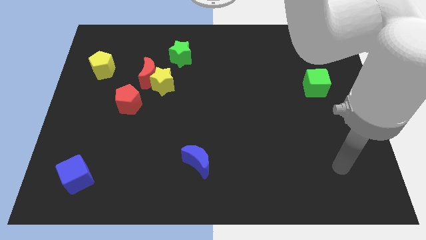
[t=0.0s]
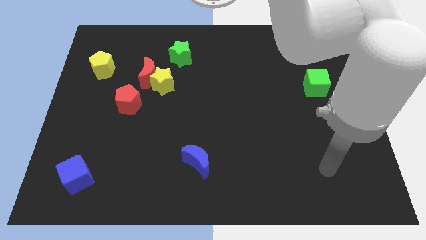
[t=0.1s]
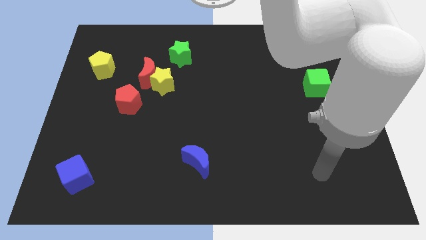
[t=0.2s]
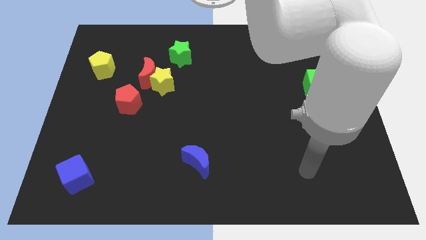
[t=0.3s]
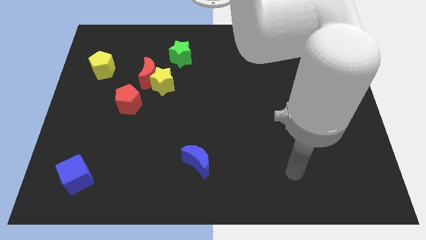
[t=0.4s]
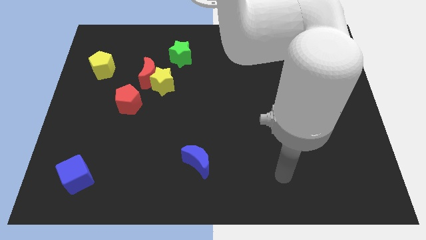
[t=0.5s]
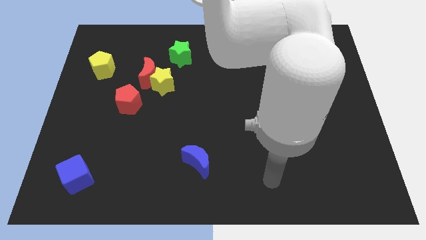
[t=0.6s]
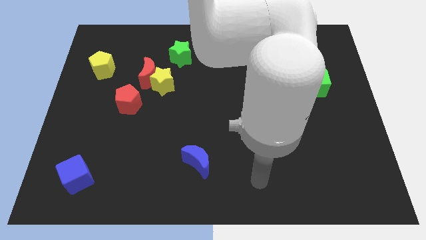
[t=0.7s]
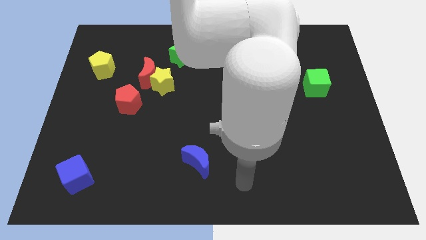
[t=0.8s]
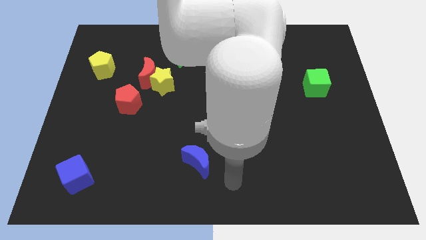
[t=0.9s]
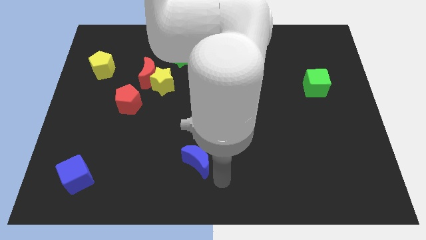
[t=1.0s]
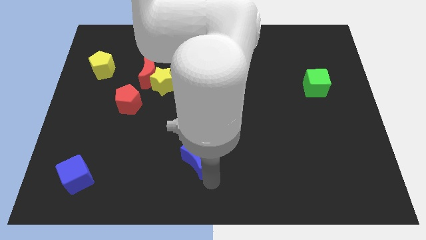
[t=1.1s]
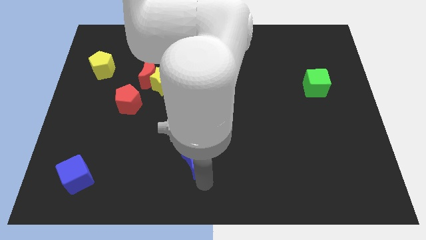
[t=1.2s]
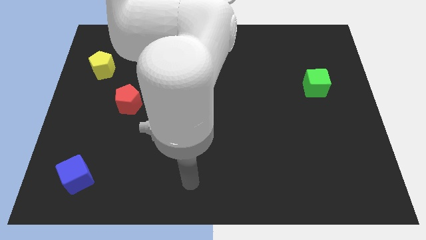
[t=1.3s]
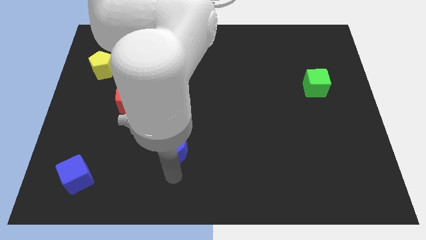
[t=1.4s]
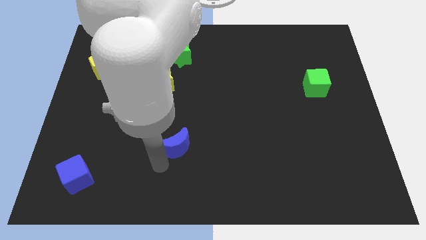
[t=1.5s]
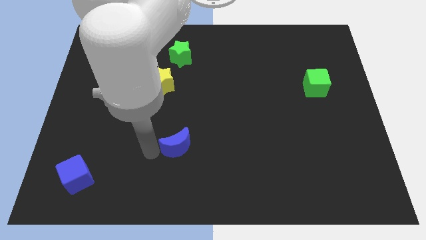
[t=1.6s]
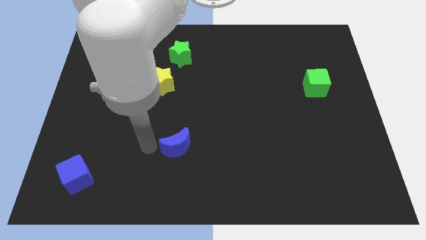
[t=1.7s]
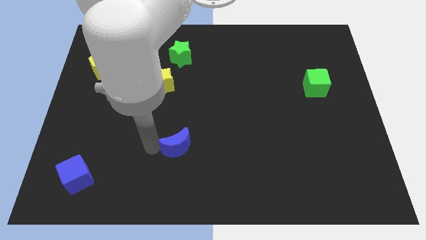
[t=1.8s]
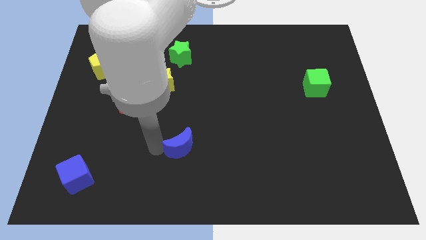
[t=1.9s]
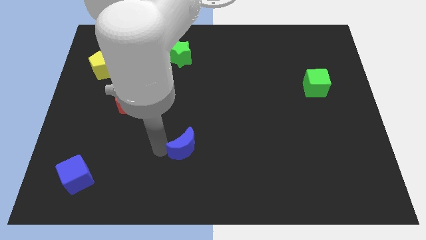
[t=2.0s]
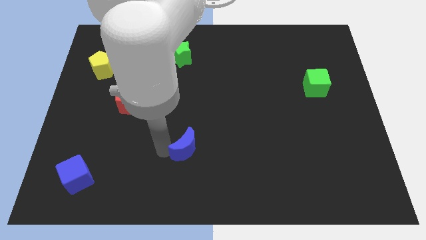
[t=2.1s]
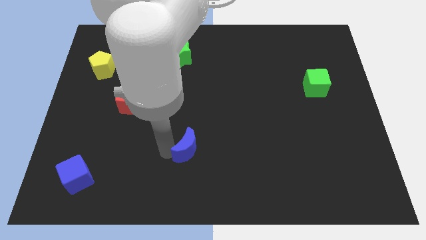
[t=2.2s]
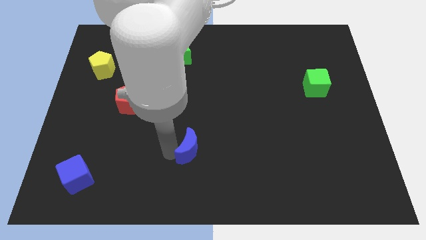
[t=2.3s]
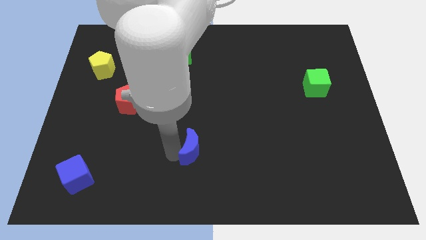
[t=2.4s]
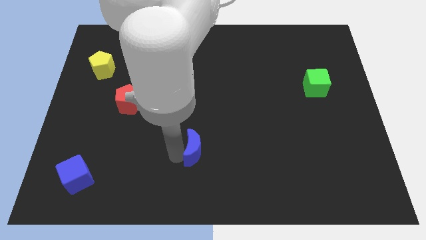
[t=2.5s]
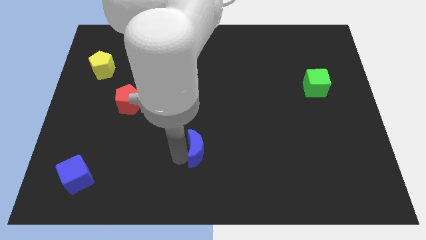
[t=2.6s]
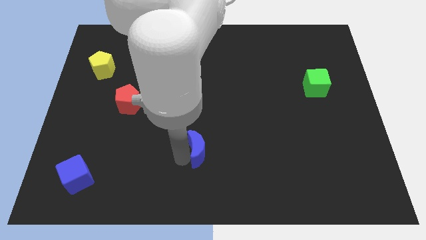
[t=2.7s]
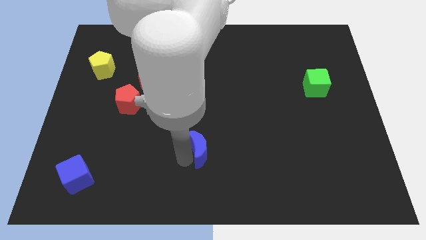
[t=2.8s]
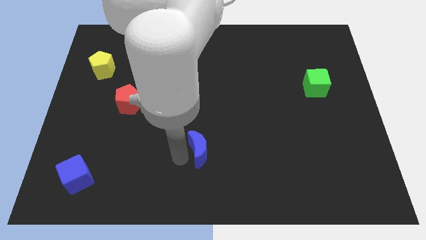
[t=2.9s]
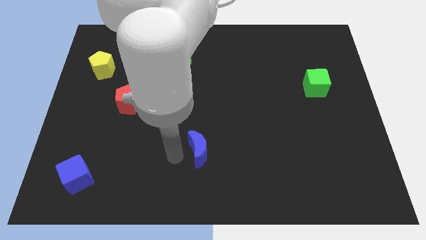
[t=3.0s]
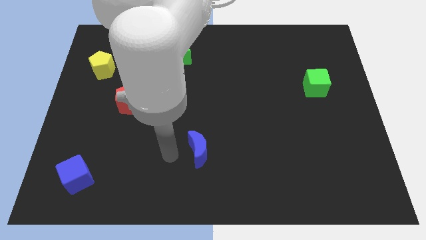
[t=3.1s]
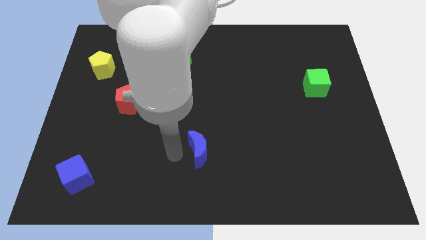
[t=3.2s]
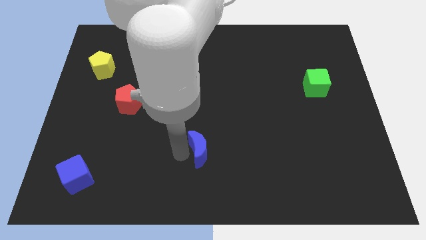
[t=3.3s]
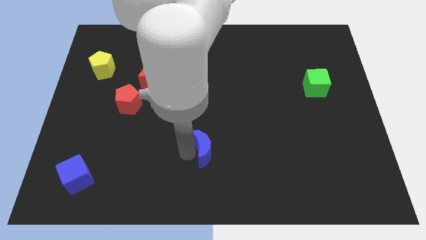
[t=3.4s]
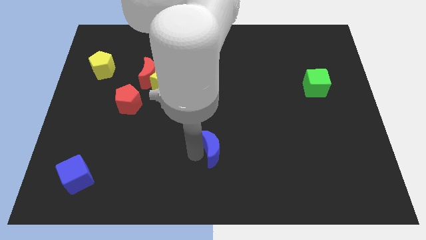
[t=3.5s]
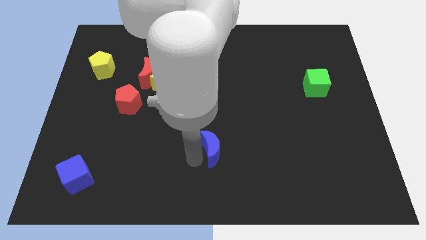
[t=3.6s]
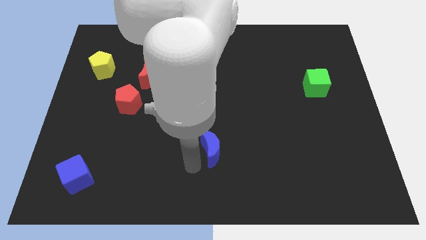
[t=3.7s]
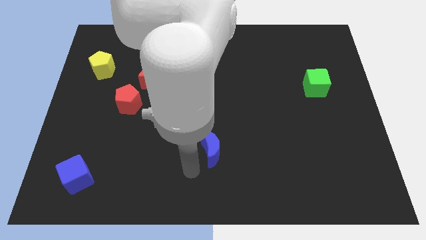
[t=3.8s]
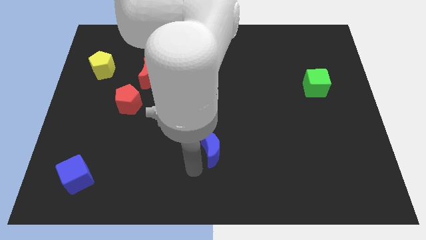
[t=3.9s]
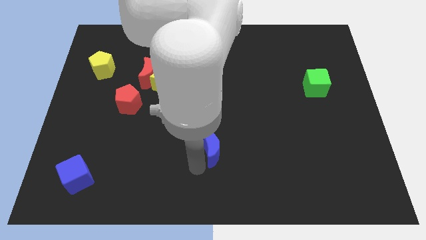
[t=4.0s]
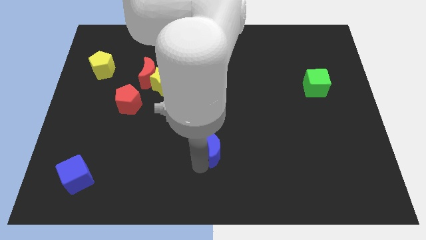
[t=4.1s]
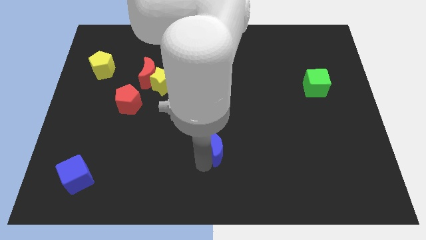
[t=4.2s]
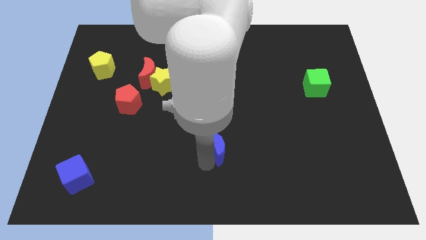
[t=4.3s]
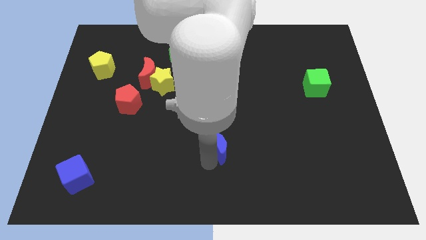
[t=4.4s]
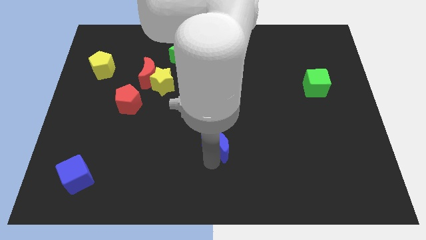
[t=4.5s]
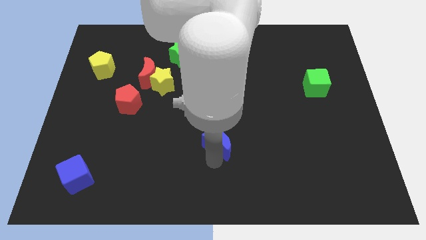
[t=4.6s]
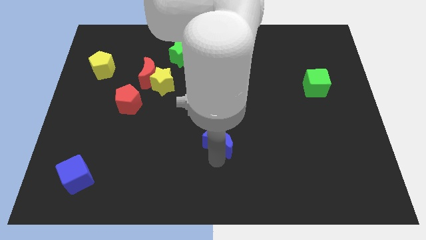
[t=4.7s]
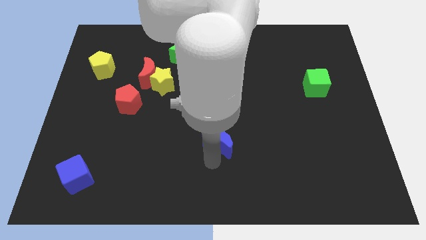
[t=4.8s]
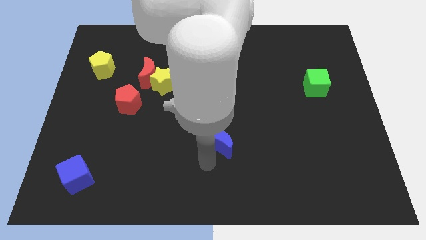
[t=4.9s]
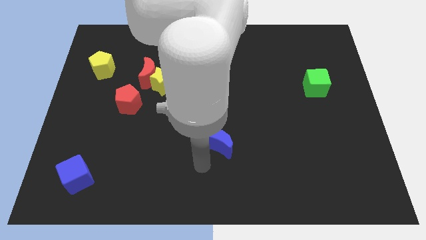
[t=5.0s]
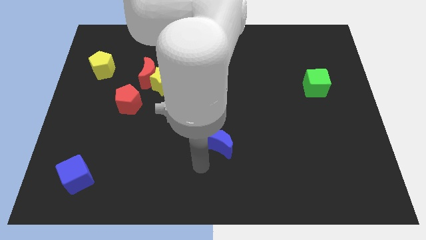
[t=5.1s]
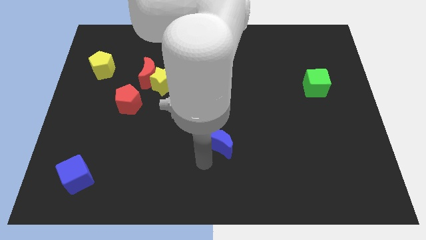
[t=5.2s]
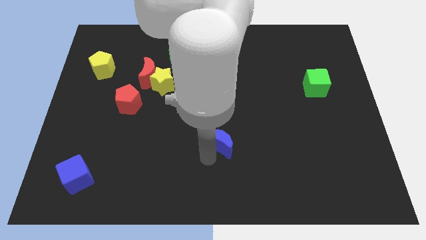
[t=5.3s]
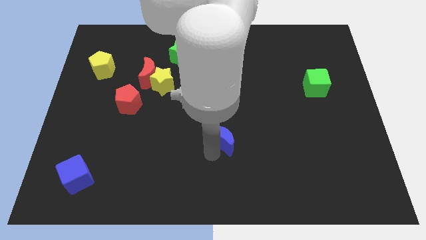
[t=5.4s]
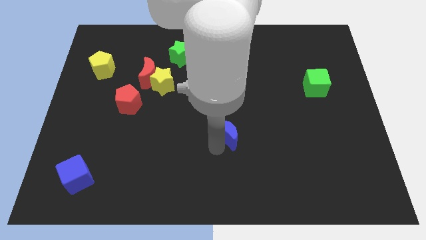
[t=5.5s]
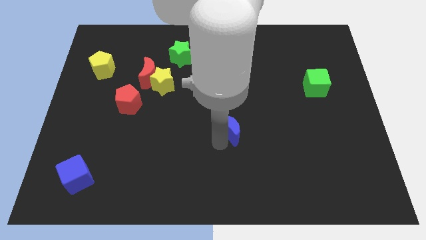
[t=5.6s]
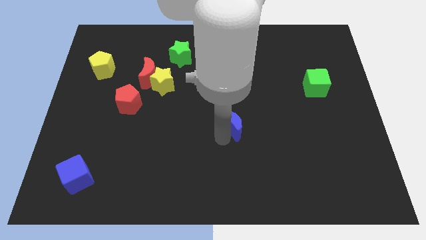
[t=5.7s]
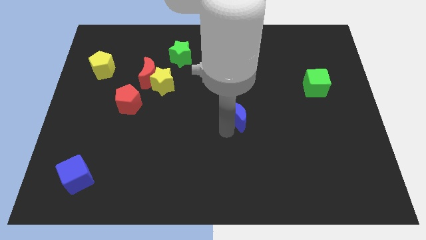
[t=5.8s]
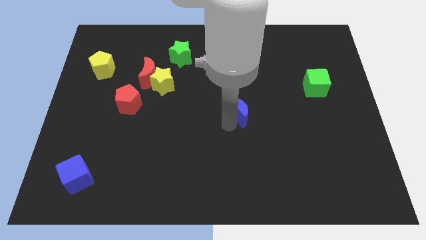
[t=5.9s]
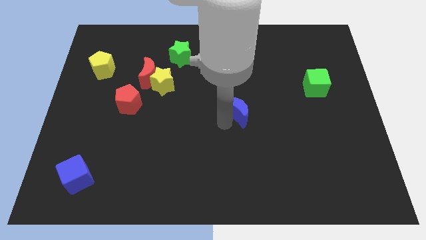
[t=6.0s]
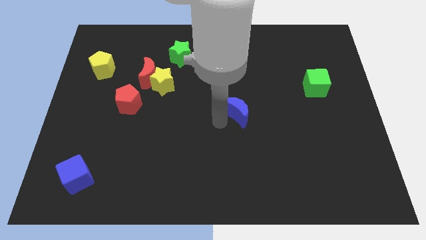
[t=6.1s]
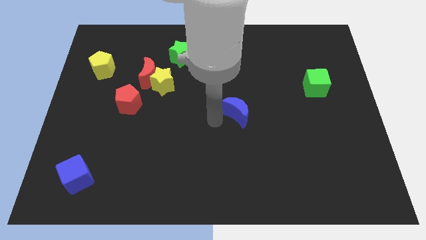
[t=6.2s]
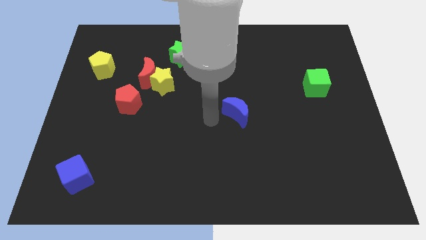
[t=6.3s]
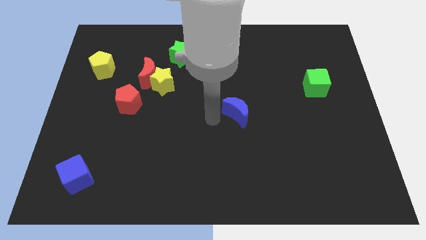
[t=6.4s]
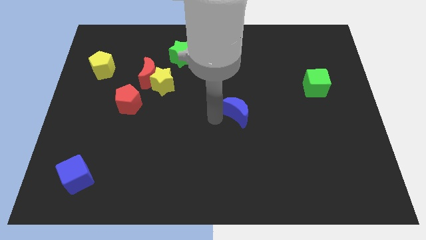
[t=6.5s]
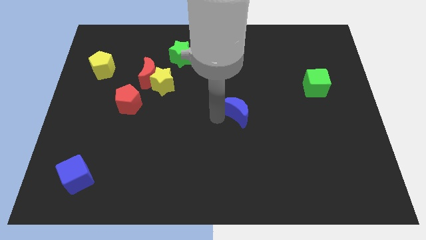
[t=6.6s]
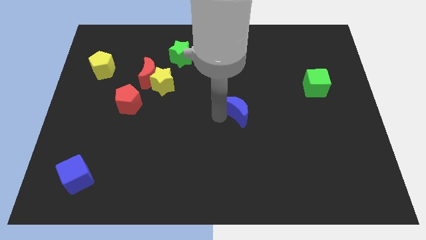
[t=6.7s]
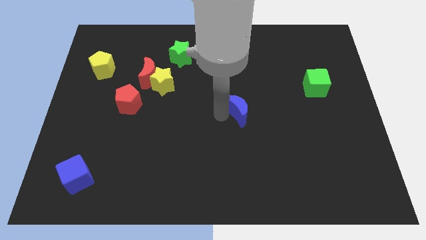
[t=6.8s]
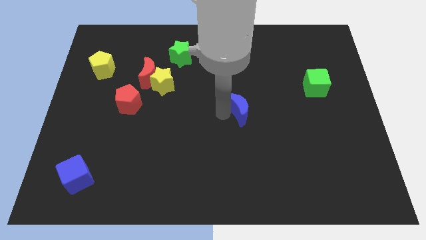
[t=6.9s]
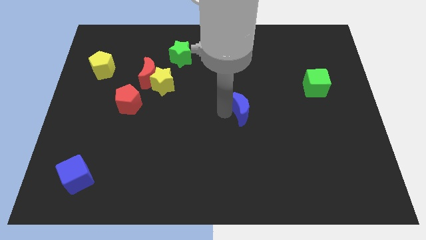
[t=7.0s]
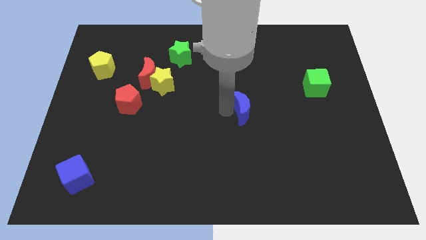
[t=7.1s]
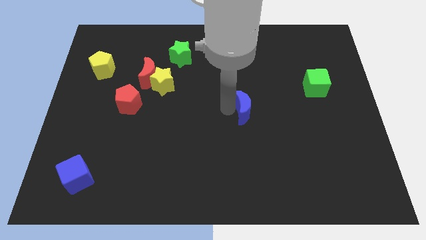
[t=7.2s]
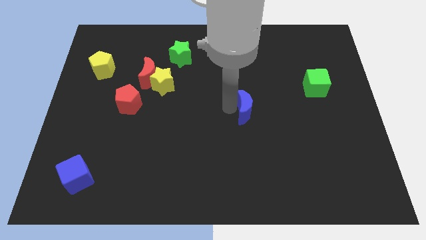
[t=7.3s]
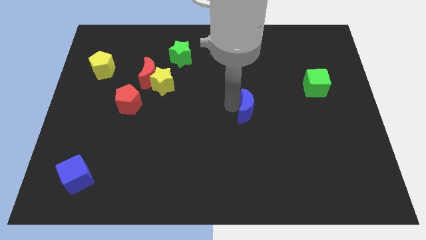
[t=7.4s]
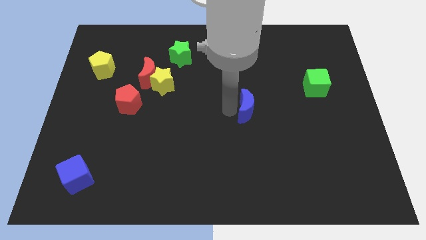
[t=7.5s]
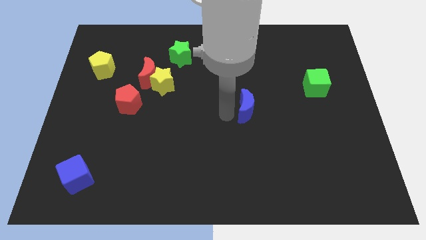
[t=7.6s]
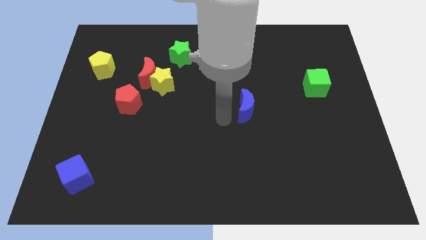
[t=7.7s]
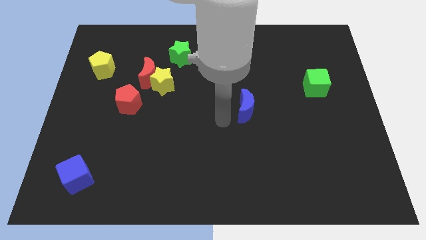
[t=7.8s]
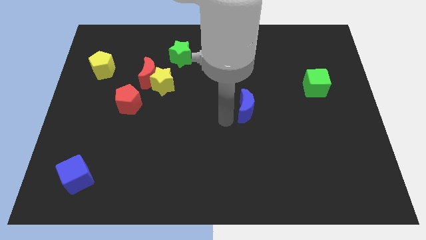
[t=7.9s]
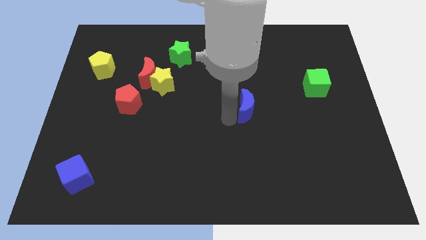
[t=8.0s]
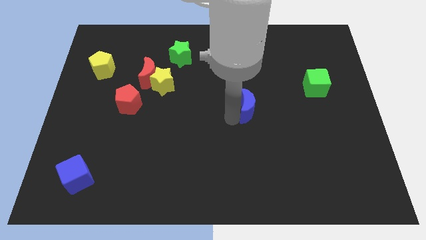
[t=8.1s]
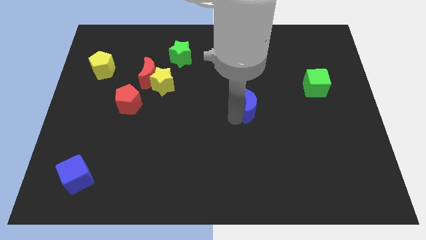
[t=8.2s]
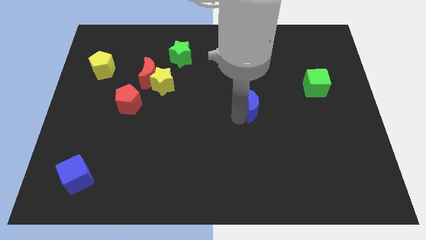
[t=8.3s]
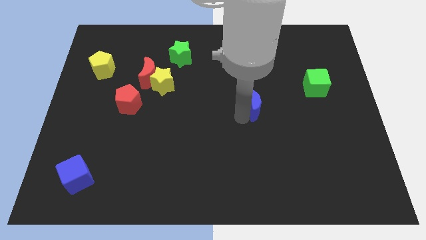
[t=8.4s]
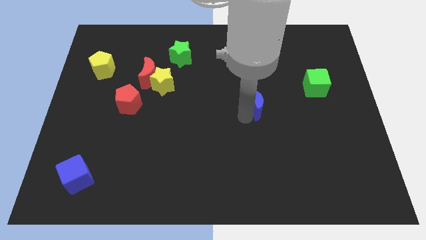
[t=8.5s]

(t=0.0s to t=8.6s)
slide the blue moon upwards and then right
